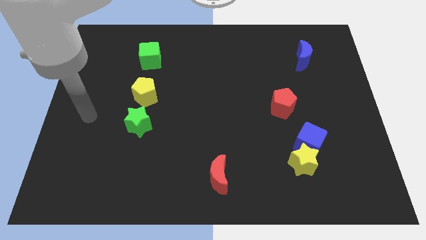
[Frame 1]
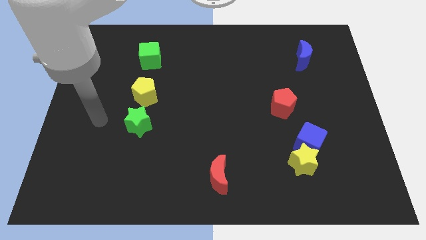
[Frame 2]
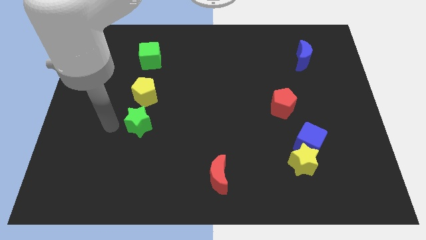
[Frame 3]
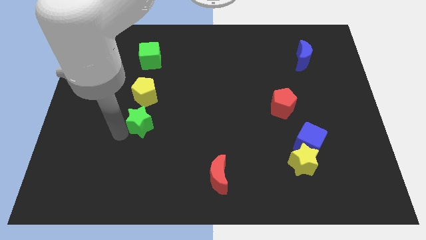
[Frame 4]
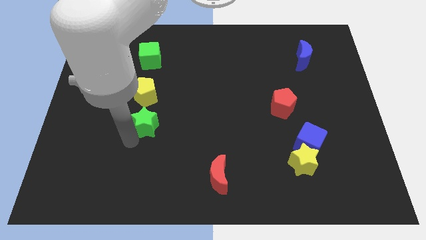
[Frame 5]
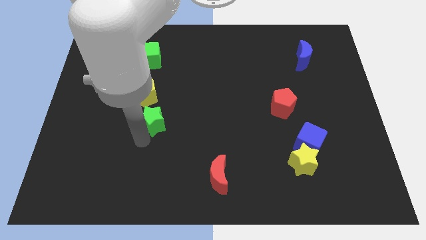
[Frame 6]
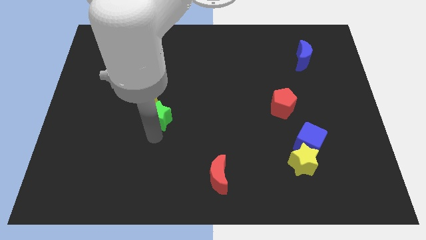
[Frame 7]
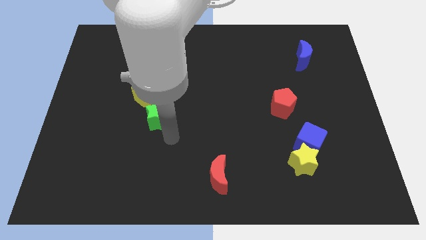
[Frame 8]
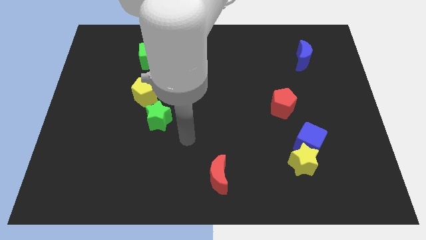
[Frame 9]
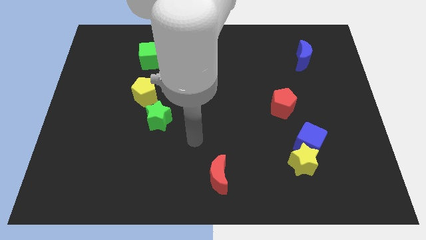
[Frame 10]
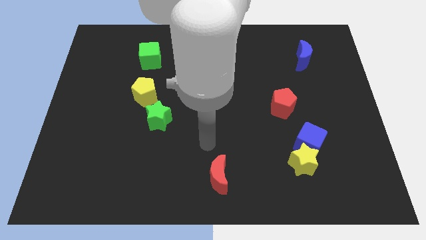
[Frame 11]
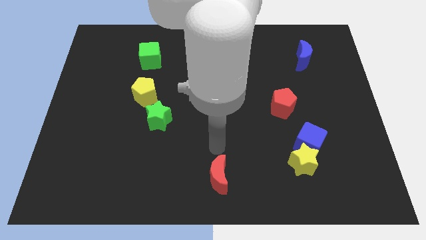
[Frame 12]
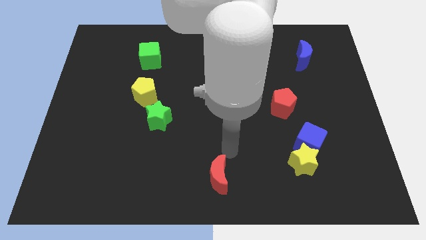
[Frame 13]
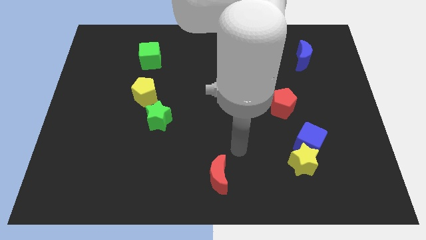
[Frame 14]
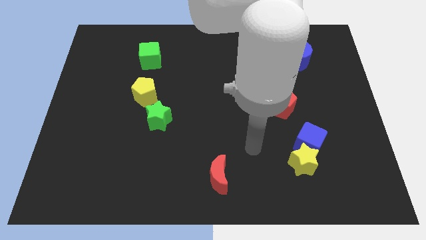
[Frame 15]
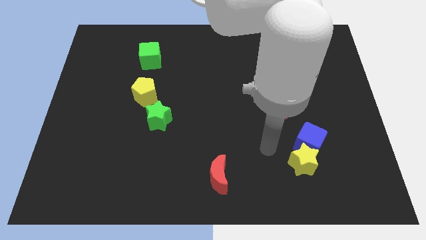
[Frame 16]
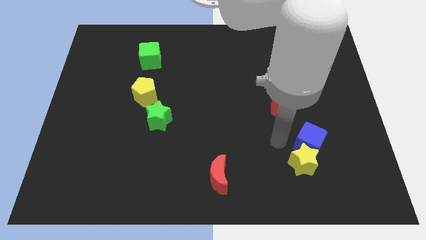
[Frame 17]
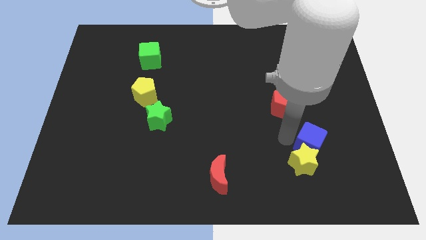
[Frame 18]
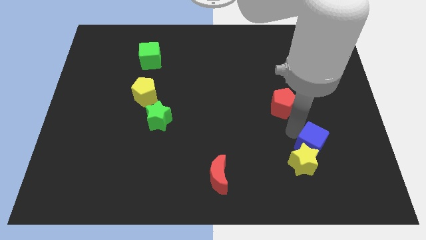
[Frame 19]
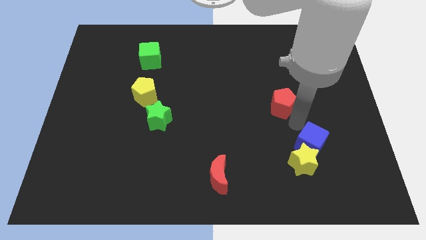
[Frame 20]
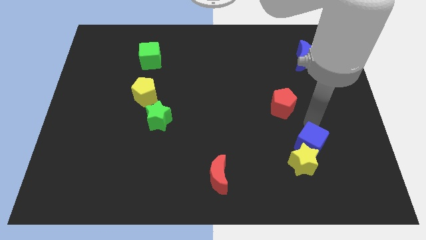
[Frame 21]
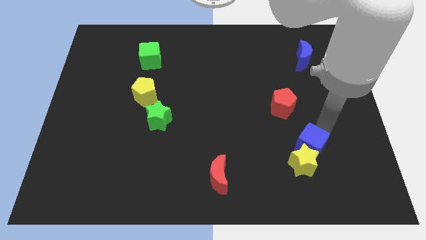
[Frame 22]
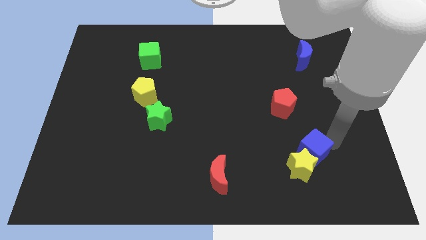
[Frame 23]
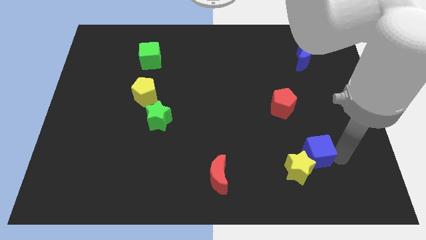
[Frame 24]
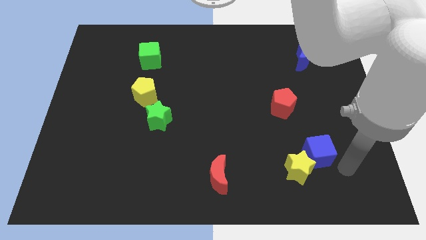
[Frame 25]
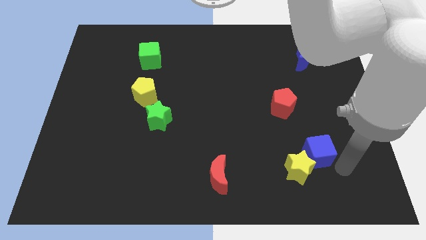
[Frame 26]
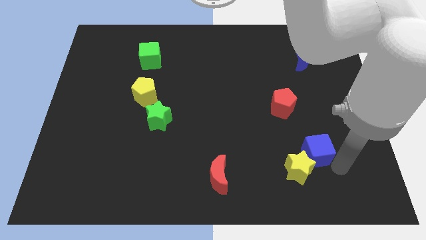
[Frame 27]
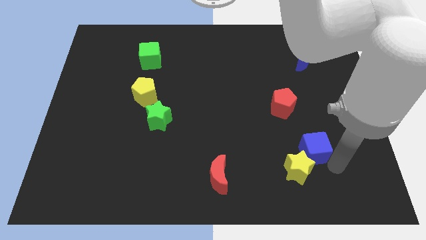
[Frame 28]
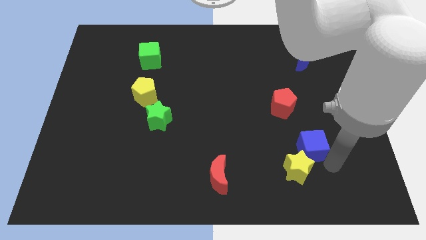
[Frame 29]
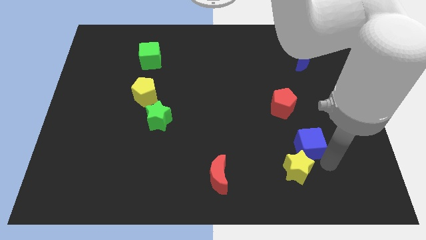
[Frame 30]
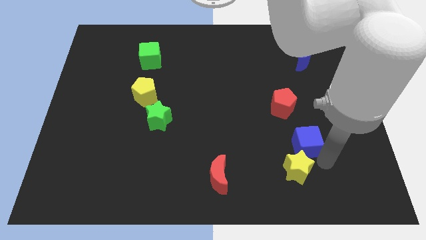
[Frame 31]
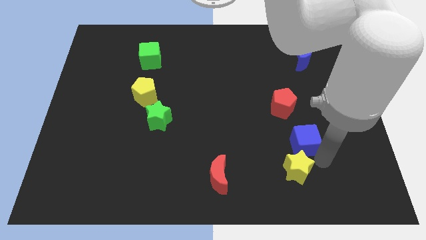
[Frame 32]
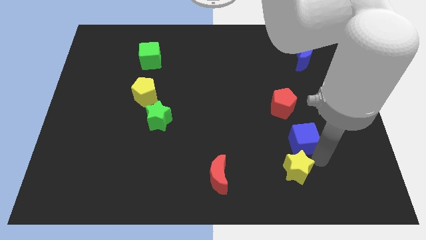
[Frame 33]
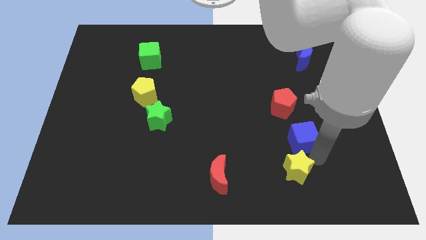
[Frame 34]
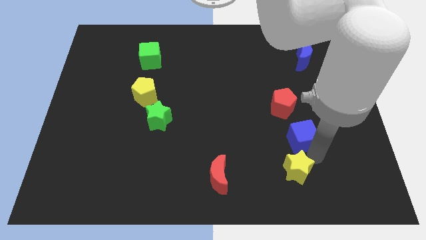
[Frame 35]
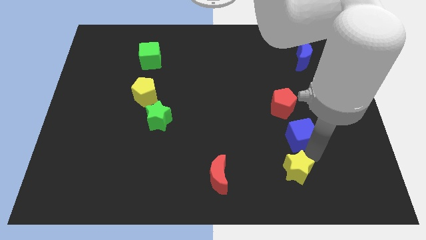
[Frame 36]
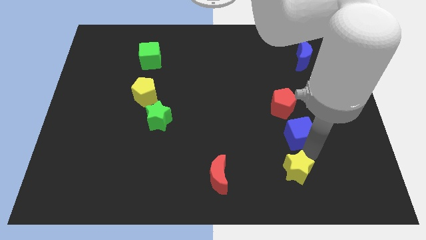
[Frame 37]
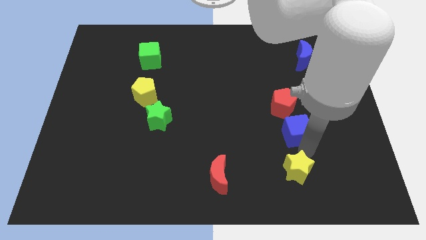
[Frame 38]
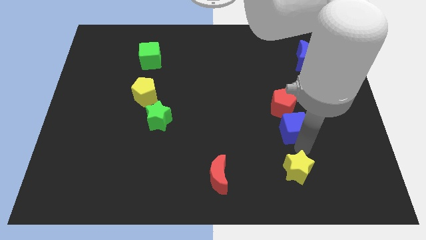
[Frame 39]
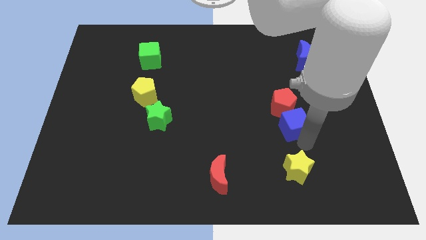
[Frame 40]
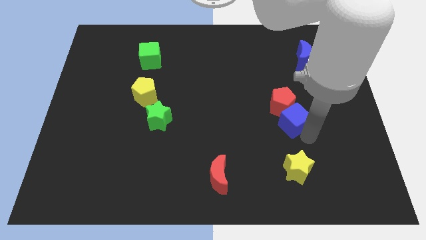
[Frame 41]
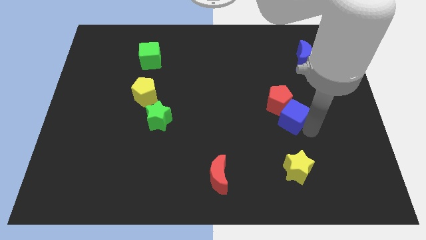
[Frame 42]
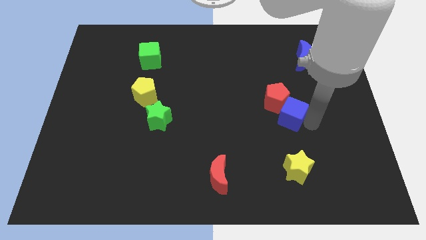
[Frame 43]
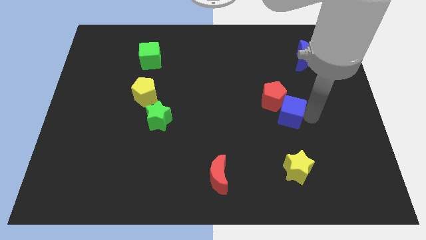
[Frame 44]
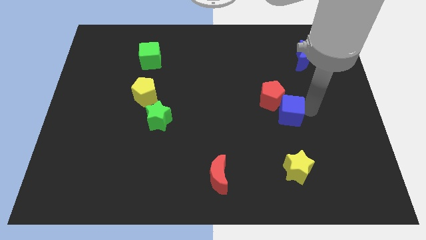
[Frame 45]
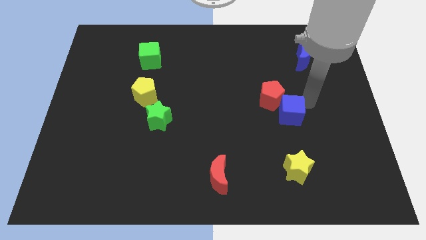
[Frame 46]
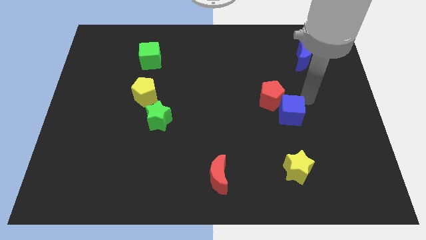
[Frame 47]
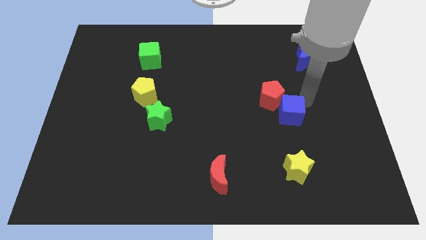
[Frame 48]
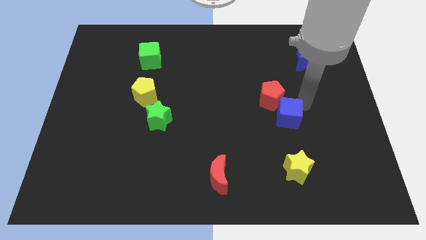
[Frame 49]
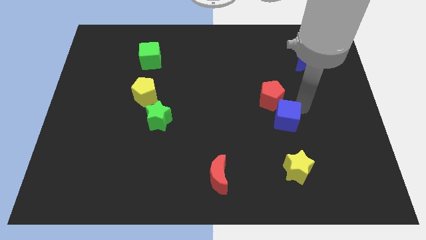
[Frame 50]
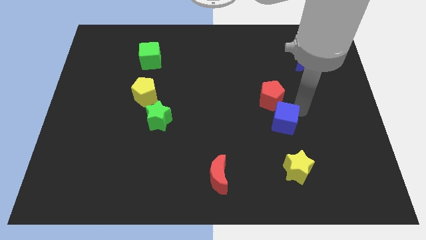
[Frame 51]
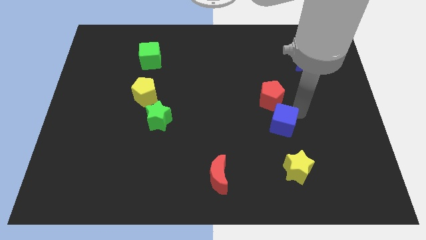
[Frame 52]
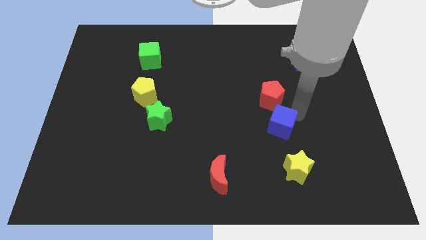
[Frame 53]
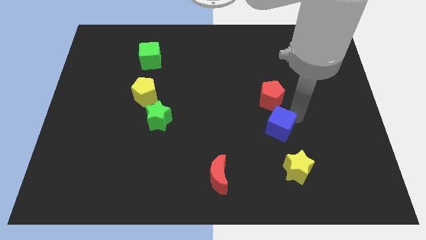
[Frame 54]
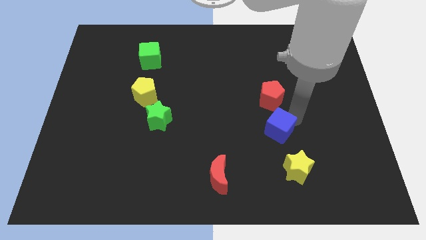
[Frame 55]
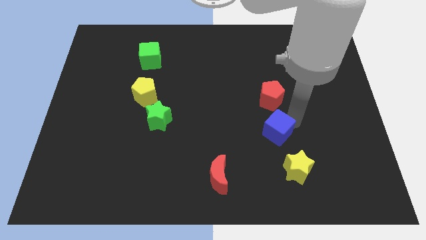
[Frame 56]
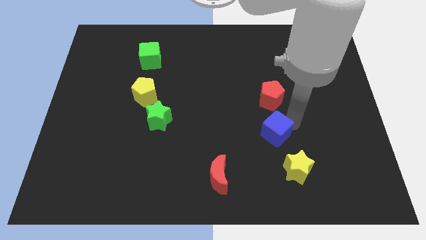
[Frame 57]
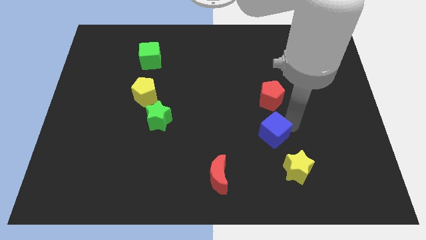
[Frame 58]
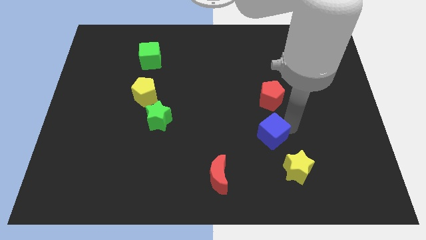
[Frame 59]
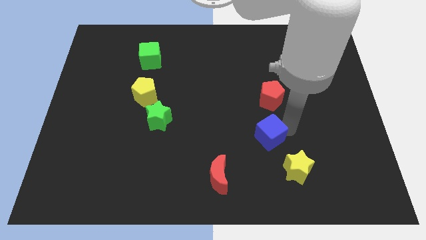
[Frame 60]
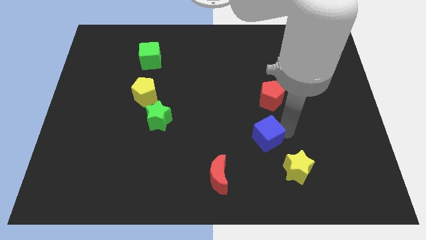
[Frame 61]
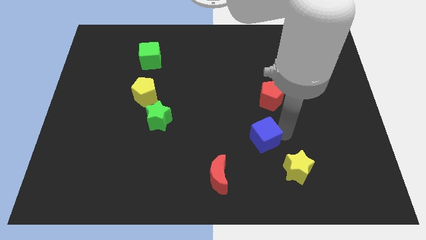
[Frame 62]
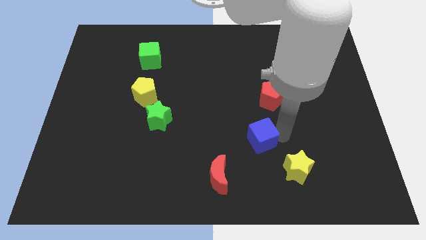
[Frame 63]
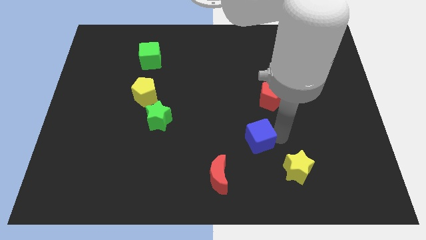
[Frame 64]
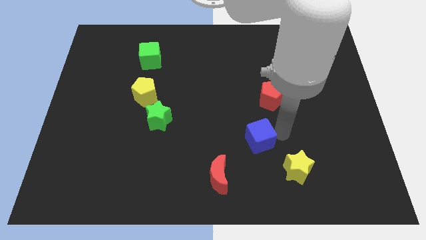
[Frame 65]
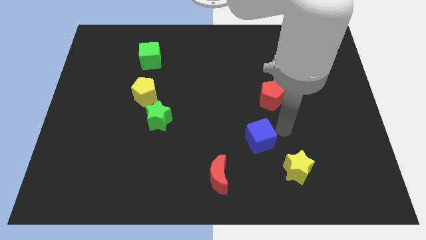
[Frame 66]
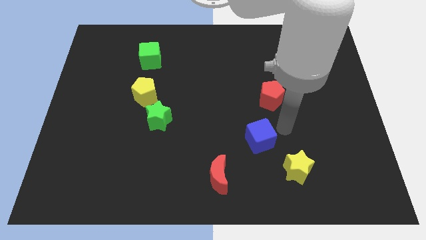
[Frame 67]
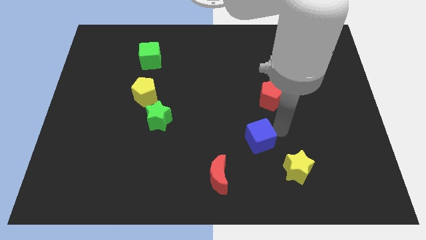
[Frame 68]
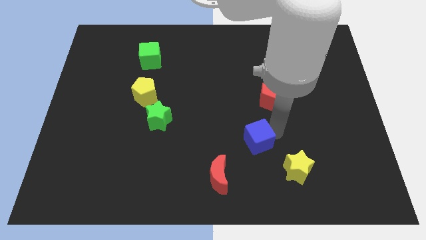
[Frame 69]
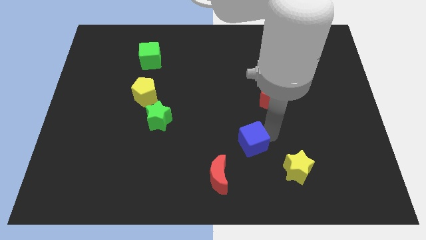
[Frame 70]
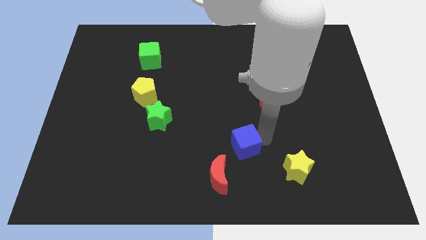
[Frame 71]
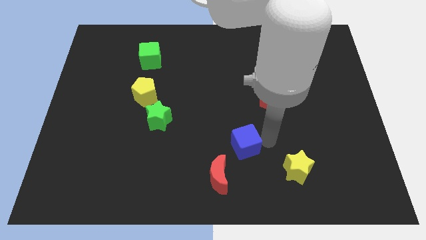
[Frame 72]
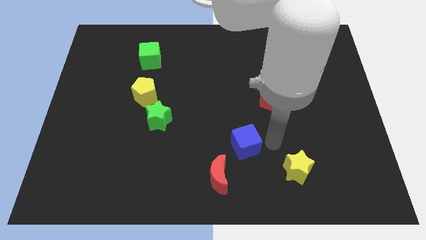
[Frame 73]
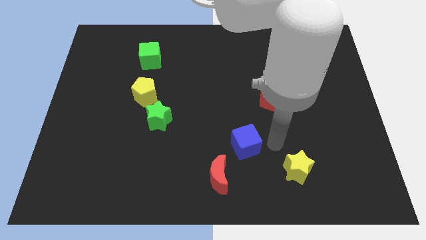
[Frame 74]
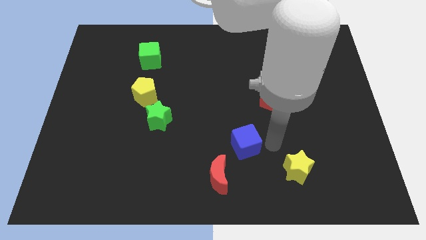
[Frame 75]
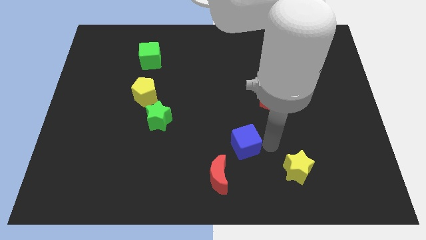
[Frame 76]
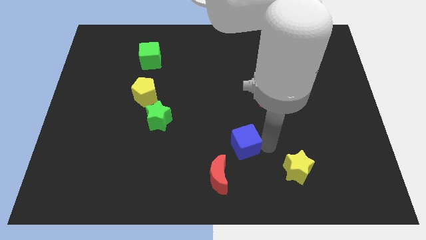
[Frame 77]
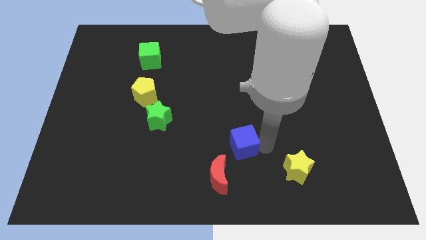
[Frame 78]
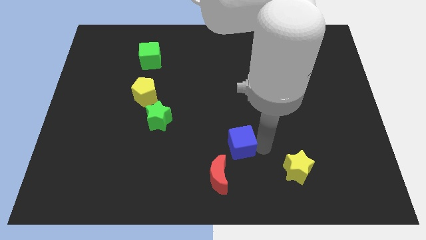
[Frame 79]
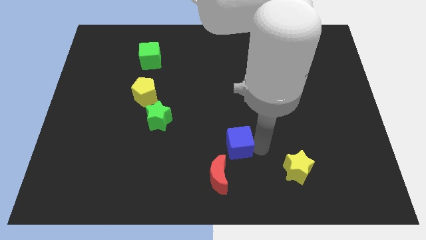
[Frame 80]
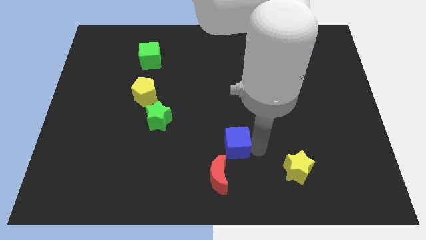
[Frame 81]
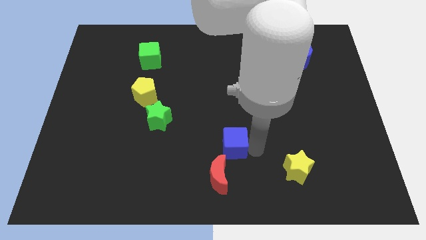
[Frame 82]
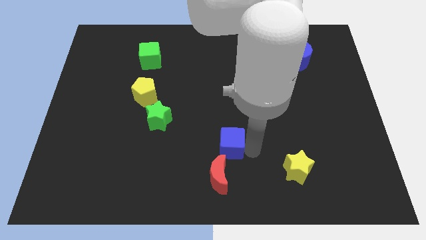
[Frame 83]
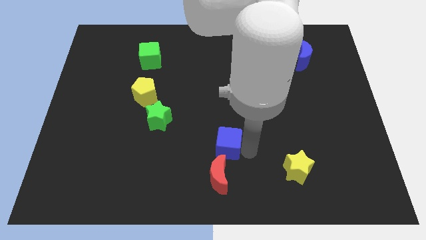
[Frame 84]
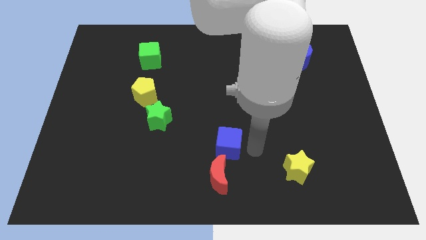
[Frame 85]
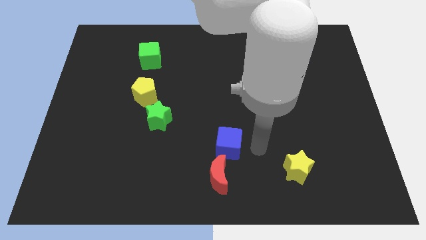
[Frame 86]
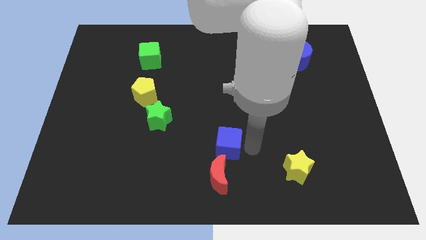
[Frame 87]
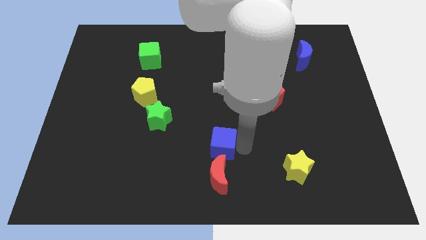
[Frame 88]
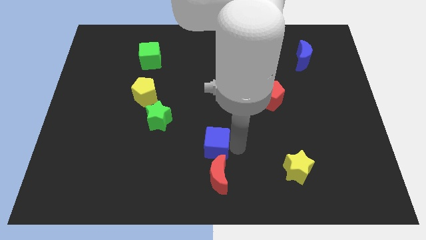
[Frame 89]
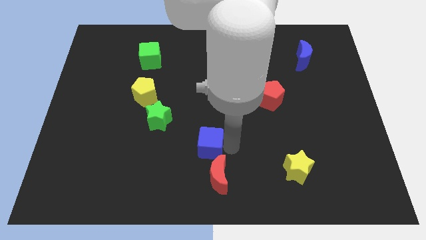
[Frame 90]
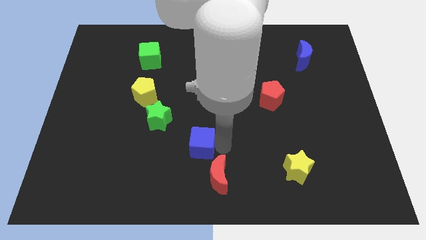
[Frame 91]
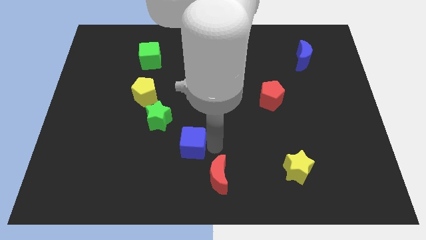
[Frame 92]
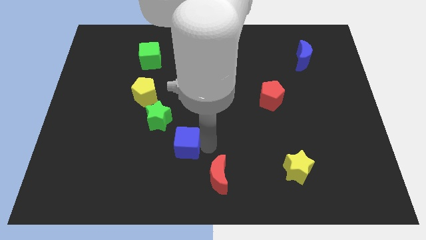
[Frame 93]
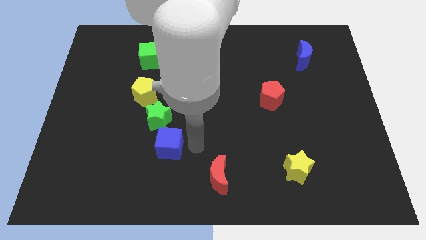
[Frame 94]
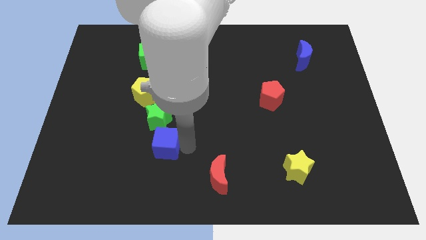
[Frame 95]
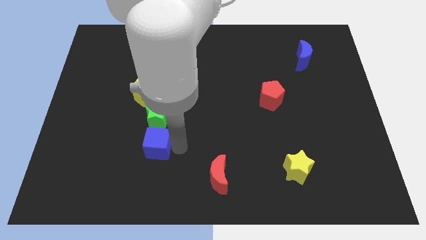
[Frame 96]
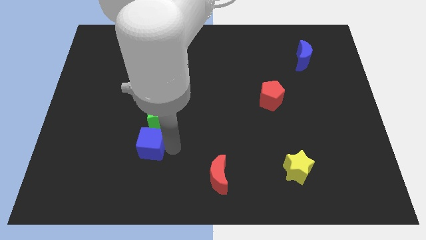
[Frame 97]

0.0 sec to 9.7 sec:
push the blue cube to the bottom left side of the green star
